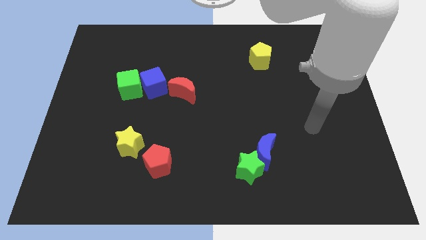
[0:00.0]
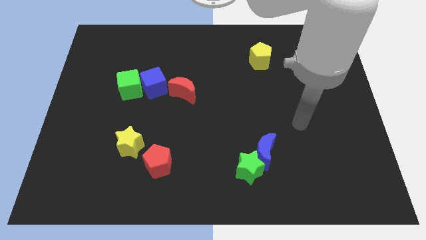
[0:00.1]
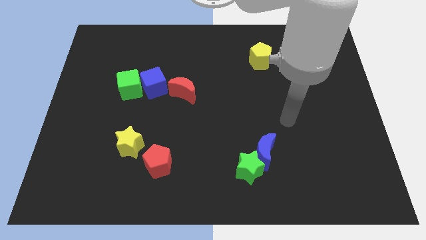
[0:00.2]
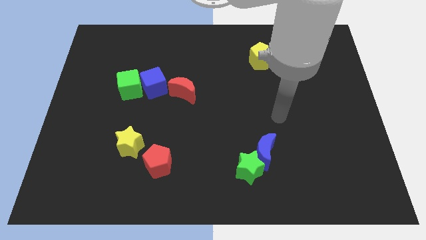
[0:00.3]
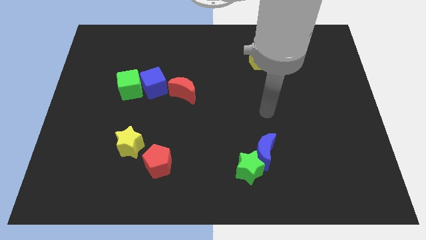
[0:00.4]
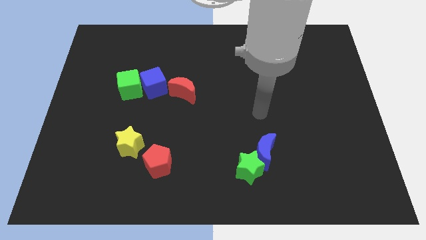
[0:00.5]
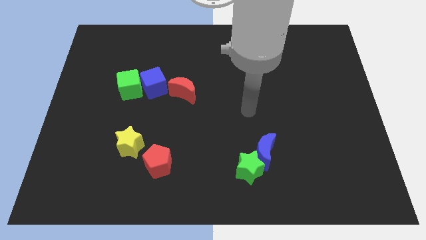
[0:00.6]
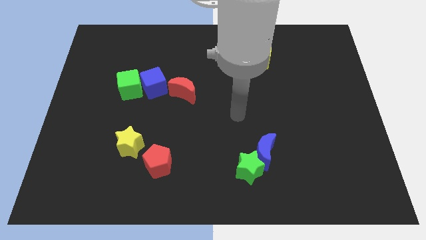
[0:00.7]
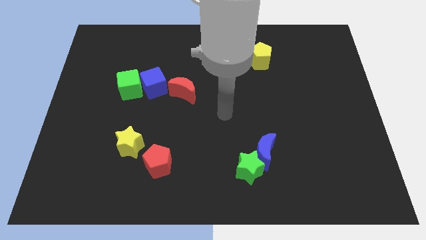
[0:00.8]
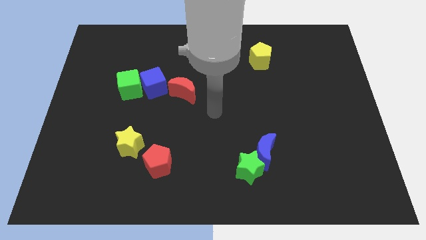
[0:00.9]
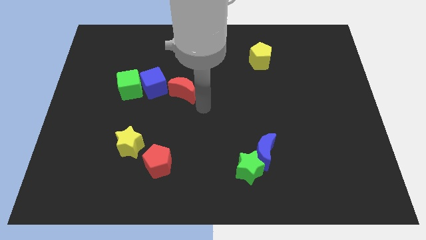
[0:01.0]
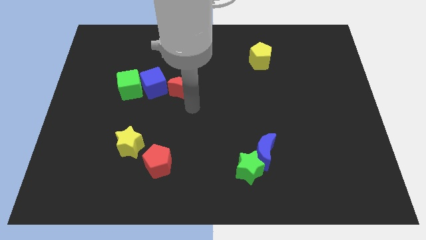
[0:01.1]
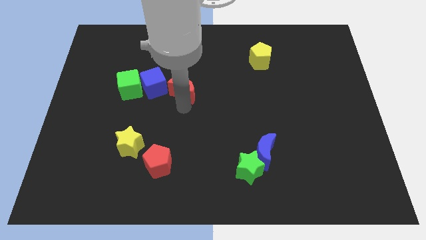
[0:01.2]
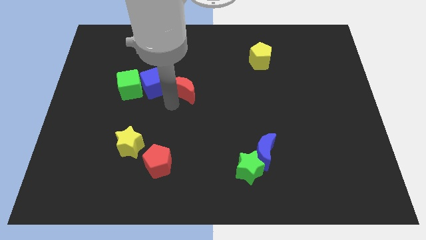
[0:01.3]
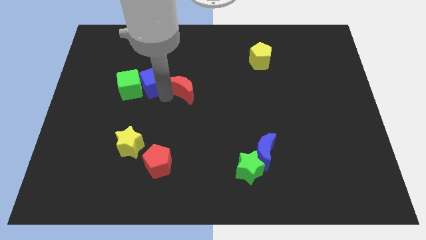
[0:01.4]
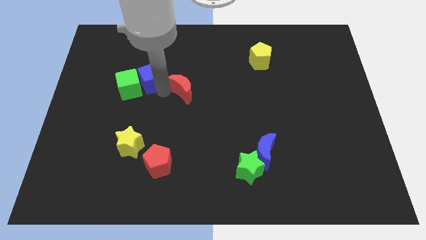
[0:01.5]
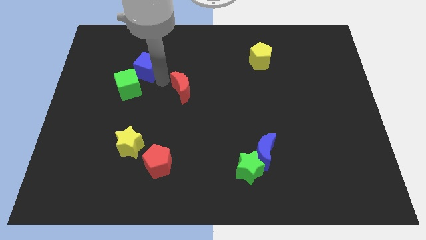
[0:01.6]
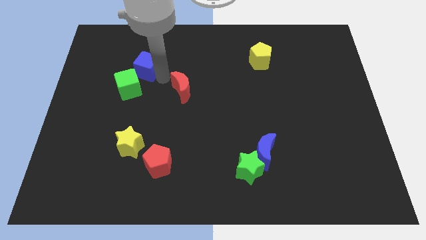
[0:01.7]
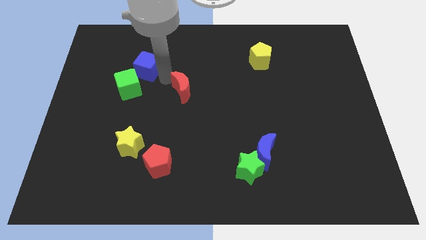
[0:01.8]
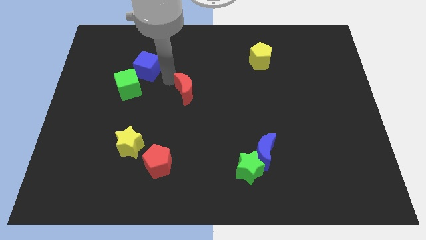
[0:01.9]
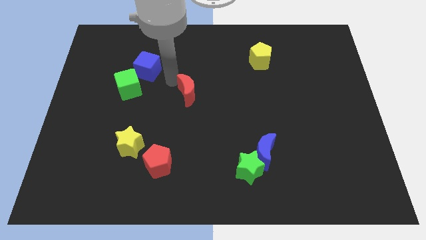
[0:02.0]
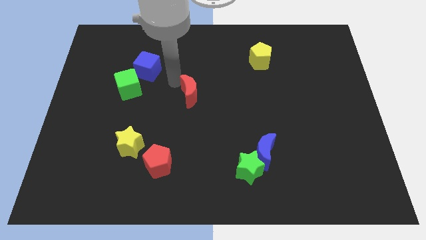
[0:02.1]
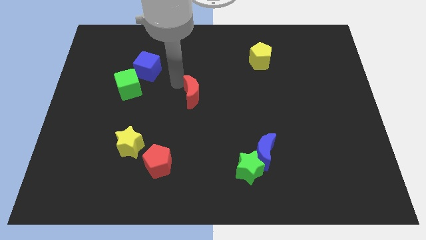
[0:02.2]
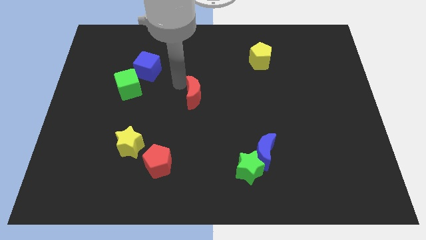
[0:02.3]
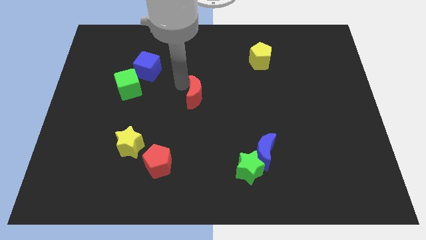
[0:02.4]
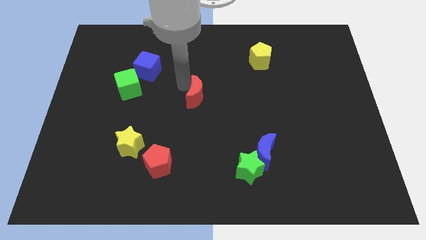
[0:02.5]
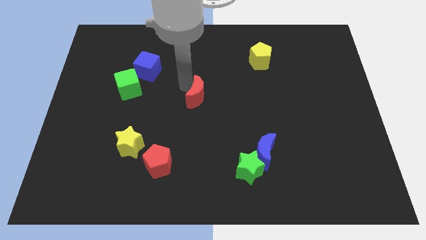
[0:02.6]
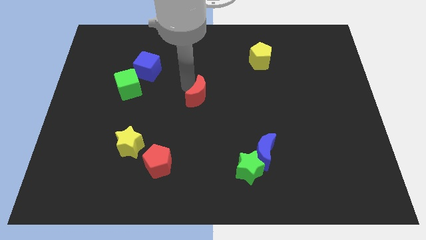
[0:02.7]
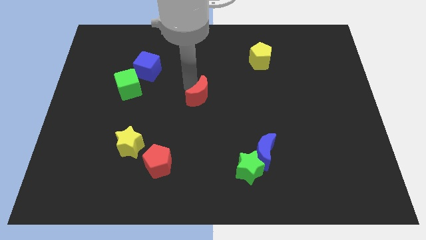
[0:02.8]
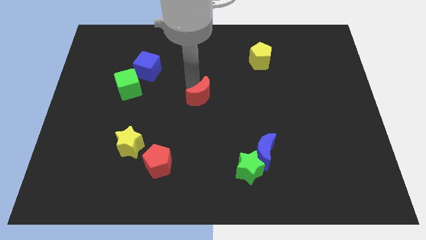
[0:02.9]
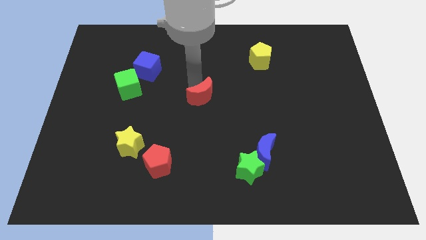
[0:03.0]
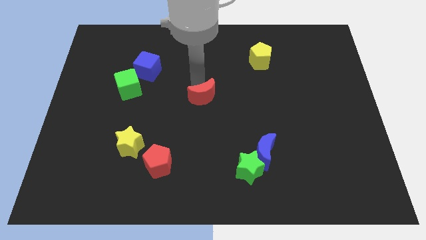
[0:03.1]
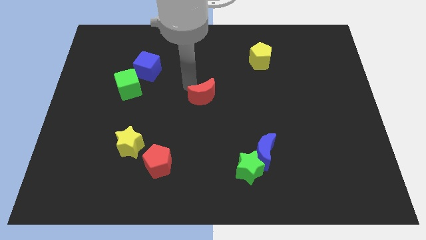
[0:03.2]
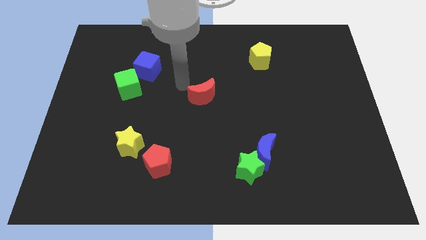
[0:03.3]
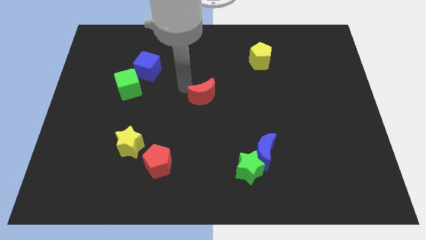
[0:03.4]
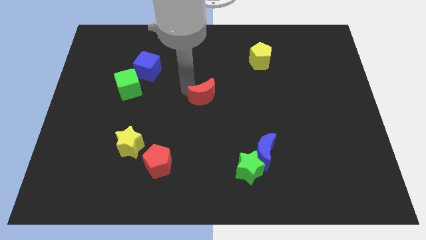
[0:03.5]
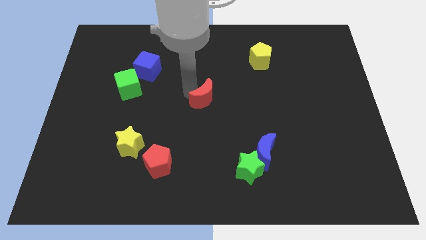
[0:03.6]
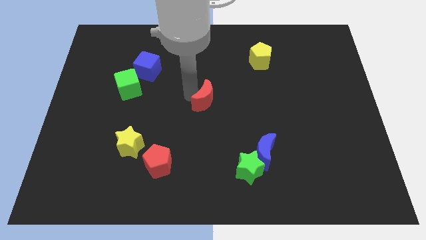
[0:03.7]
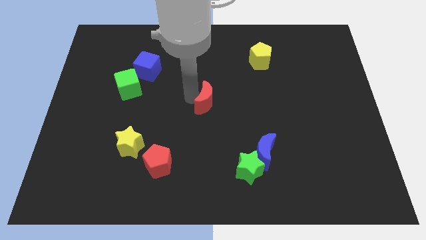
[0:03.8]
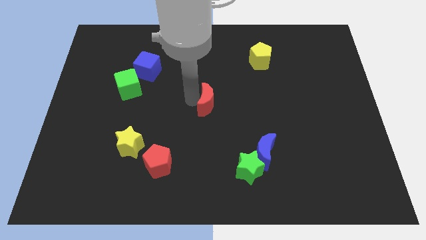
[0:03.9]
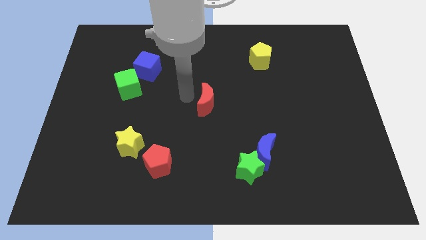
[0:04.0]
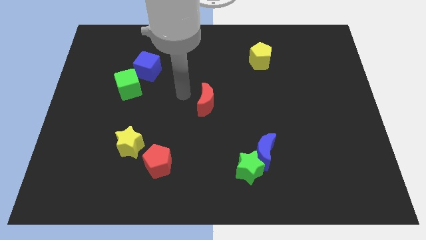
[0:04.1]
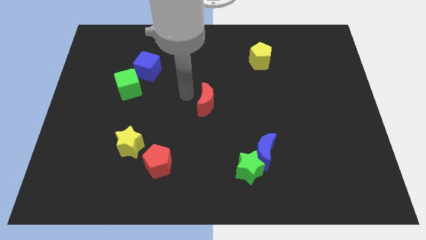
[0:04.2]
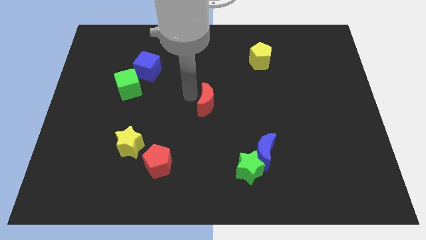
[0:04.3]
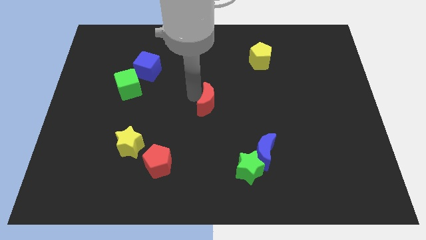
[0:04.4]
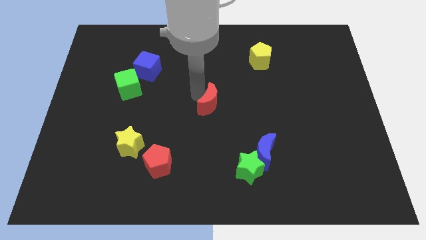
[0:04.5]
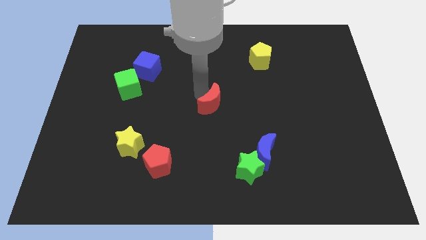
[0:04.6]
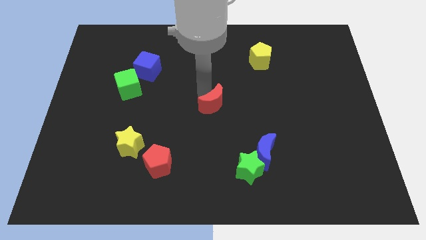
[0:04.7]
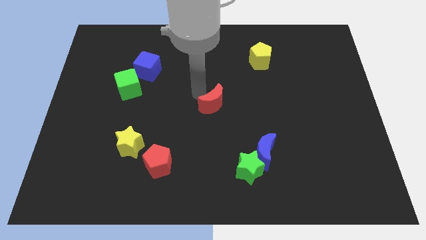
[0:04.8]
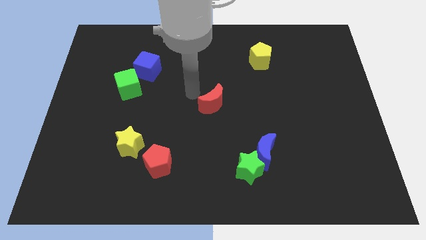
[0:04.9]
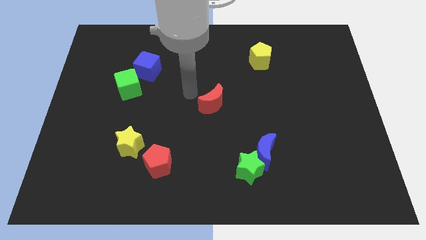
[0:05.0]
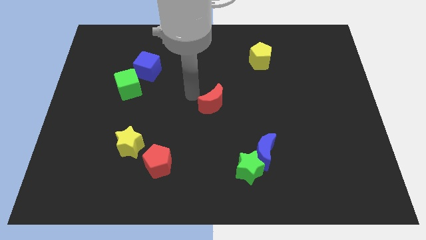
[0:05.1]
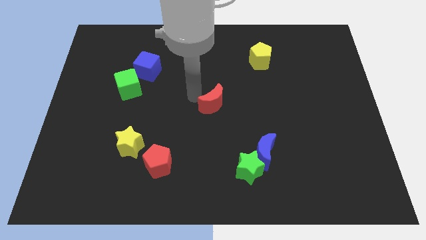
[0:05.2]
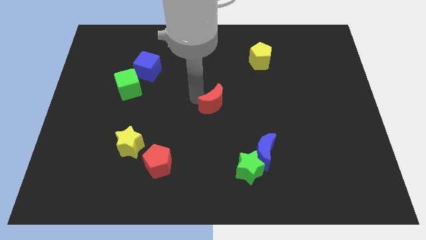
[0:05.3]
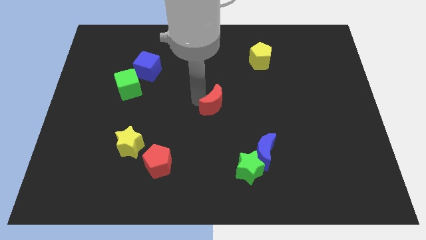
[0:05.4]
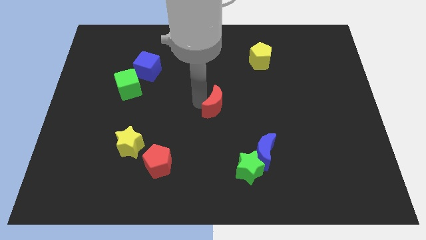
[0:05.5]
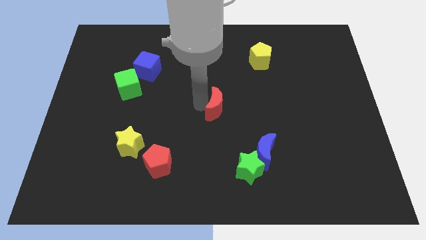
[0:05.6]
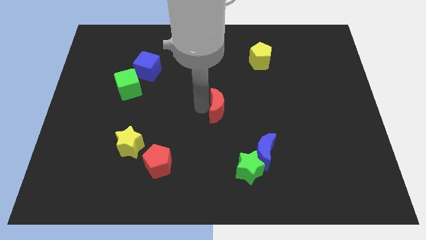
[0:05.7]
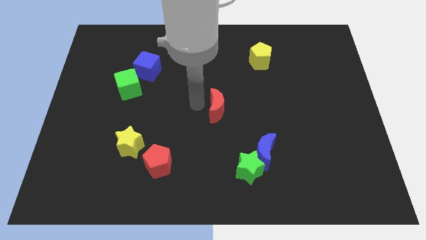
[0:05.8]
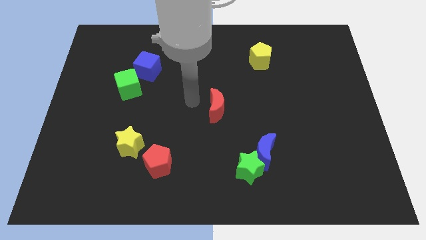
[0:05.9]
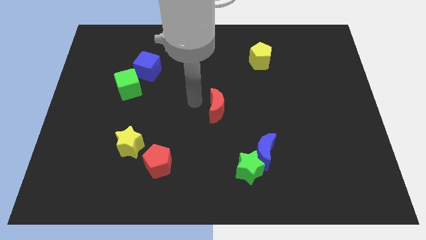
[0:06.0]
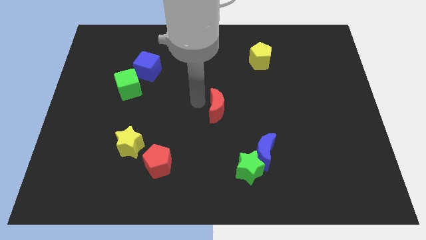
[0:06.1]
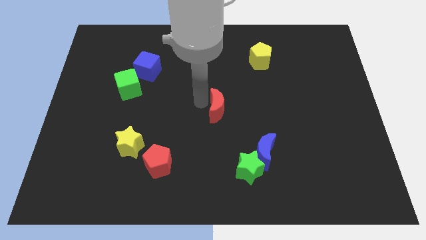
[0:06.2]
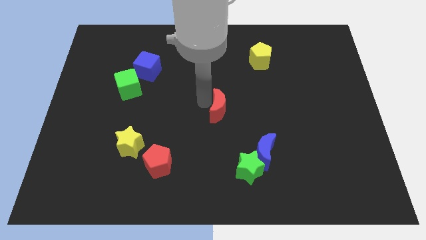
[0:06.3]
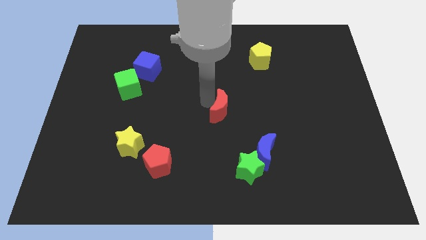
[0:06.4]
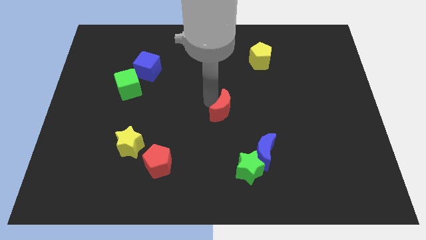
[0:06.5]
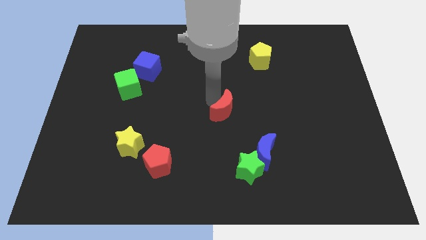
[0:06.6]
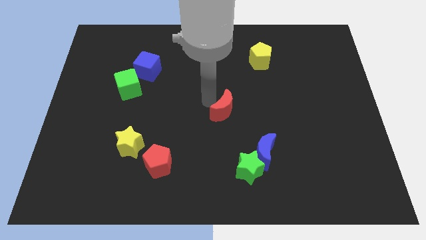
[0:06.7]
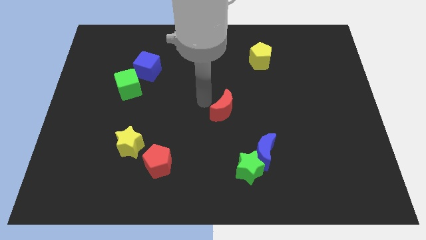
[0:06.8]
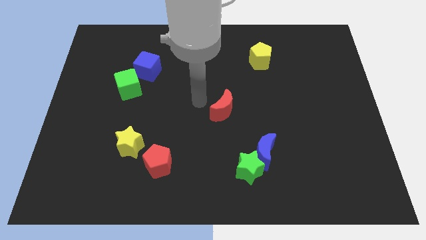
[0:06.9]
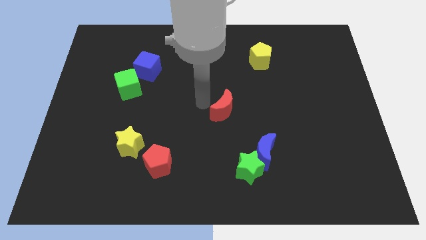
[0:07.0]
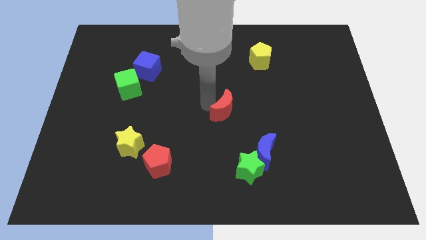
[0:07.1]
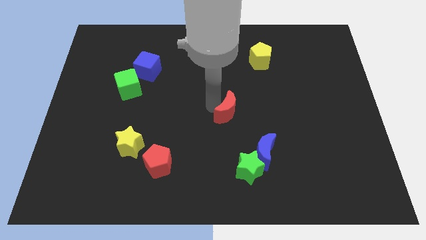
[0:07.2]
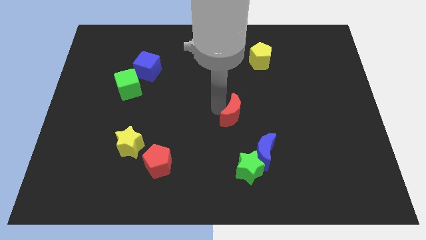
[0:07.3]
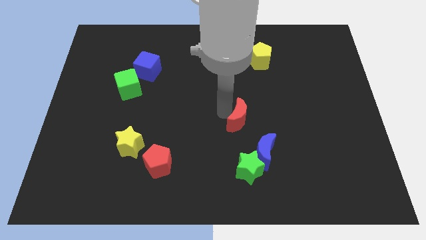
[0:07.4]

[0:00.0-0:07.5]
slide the red moon to the top side of the blue moon
